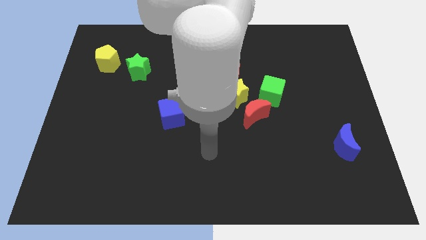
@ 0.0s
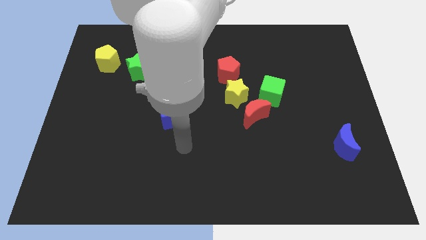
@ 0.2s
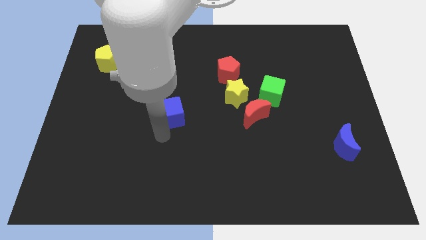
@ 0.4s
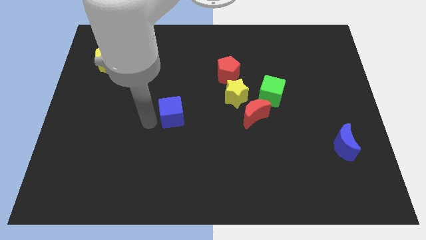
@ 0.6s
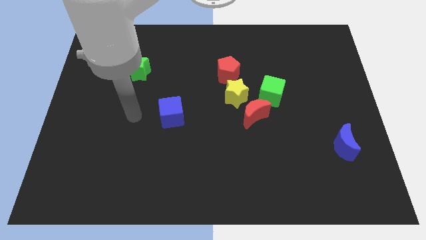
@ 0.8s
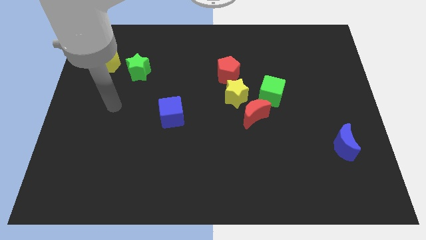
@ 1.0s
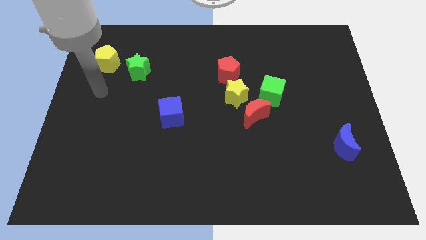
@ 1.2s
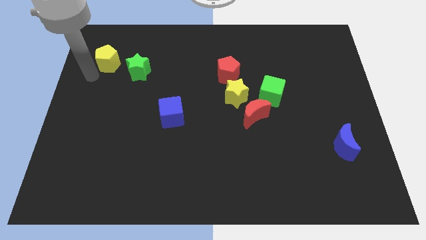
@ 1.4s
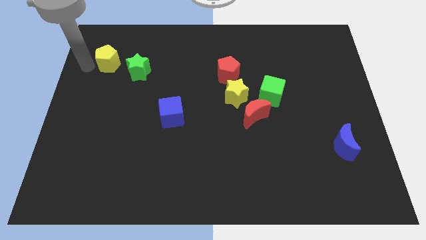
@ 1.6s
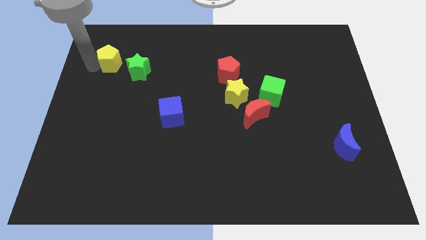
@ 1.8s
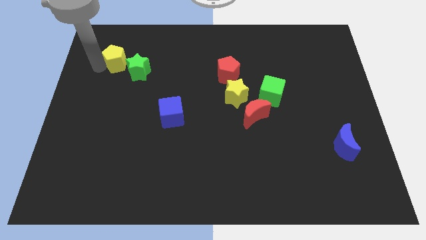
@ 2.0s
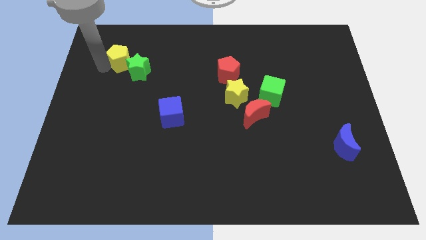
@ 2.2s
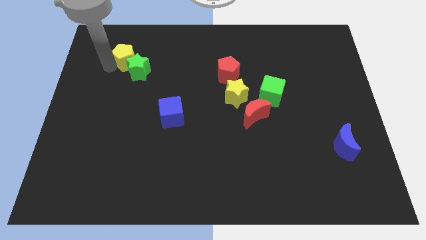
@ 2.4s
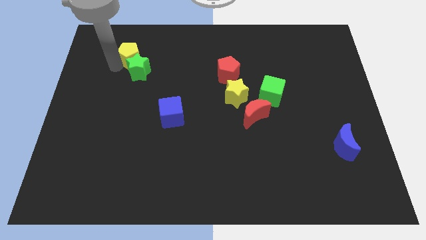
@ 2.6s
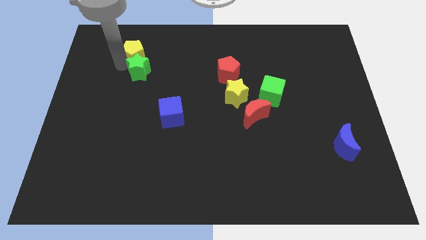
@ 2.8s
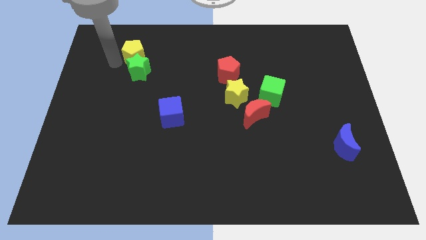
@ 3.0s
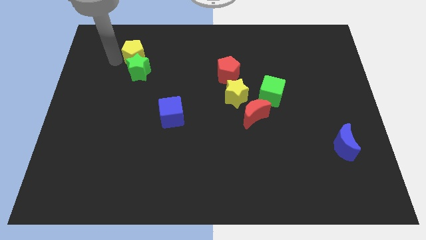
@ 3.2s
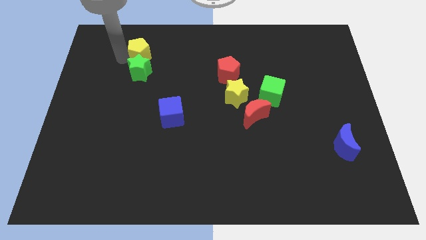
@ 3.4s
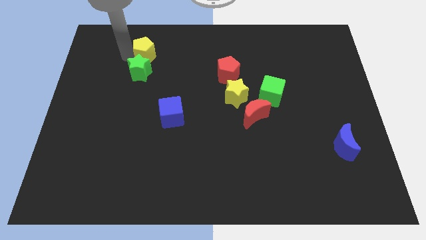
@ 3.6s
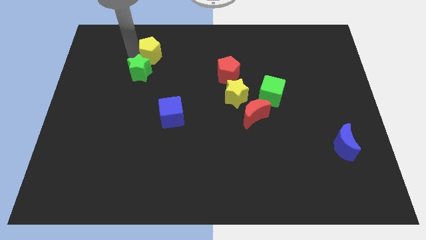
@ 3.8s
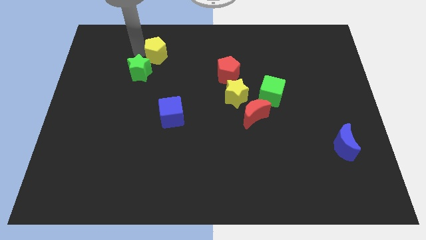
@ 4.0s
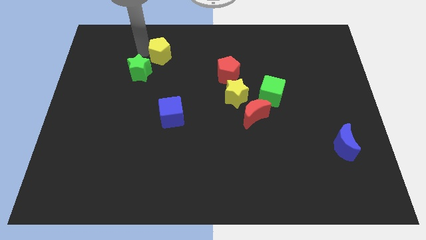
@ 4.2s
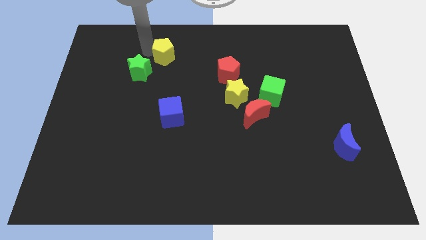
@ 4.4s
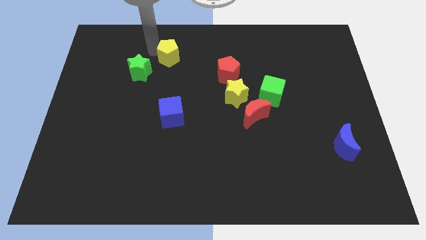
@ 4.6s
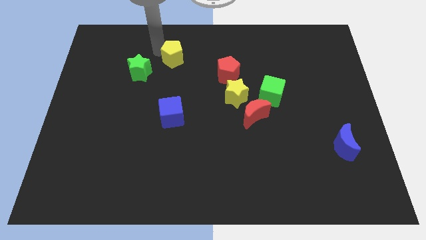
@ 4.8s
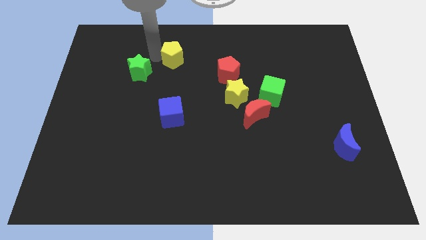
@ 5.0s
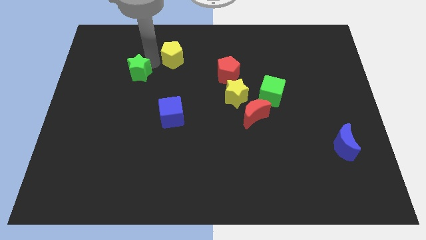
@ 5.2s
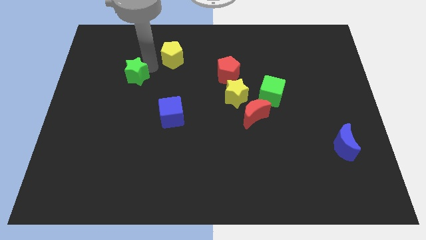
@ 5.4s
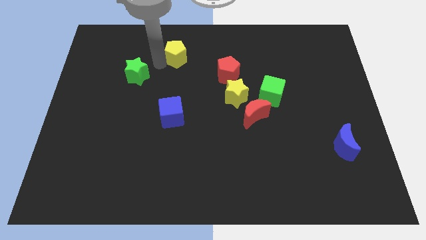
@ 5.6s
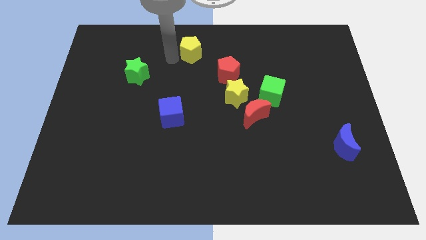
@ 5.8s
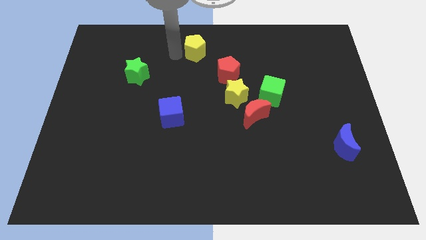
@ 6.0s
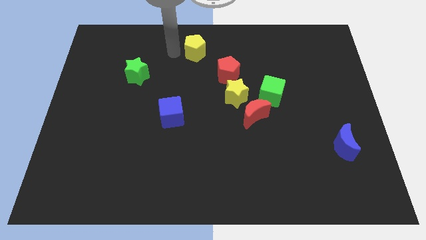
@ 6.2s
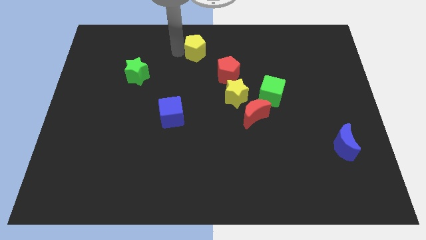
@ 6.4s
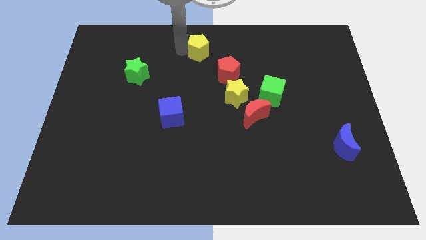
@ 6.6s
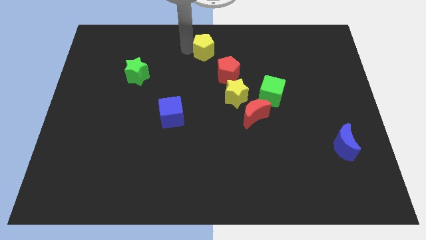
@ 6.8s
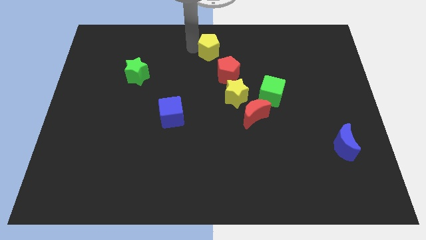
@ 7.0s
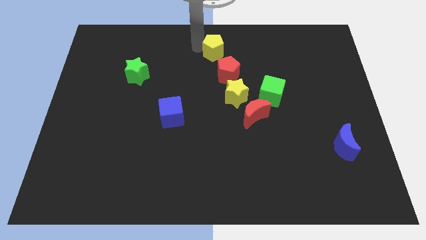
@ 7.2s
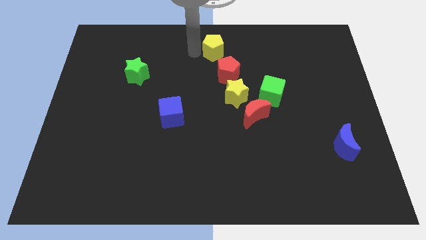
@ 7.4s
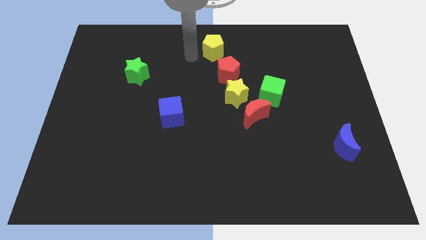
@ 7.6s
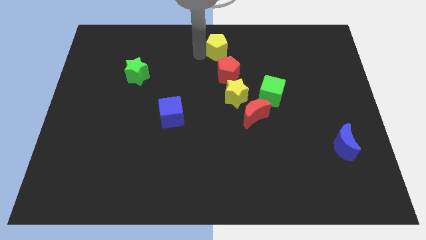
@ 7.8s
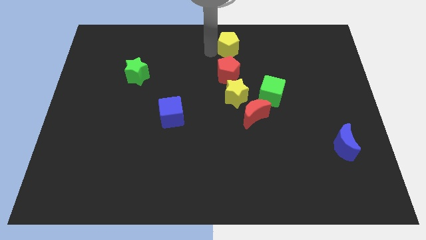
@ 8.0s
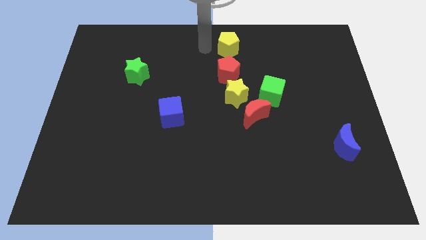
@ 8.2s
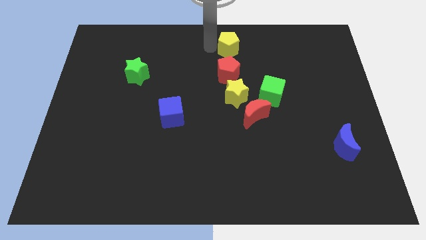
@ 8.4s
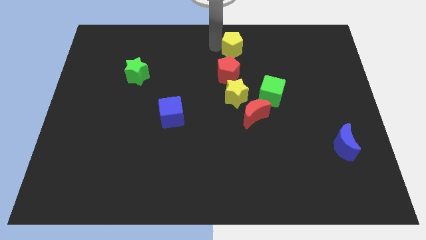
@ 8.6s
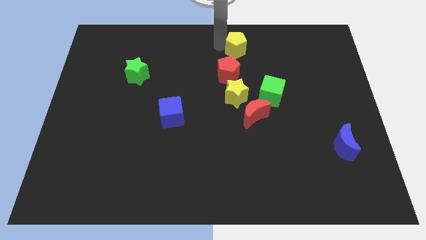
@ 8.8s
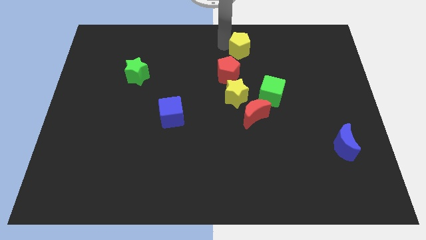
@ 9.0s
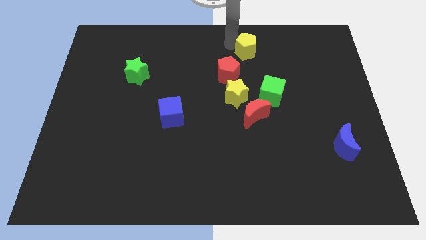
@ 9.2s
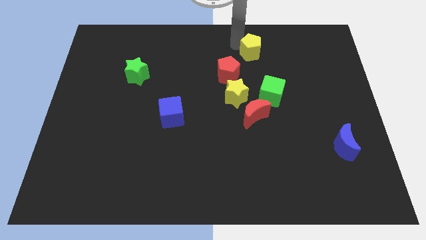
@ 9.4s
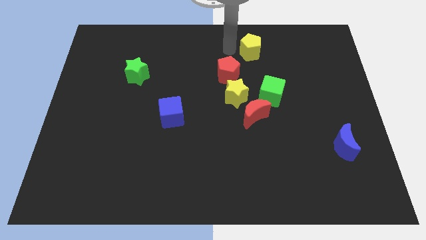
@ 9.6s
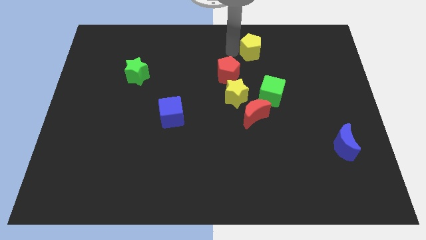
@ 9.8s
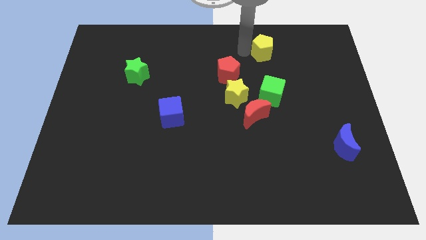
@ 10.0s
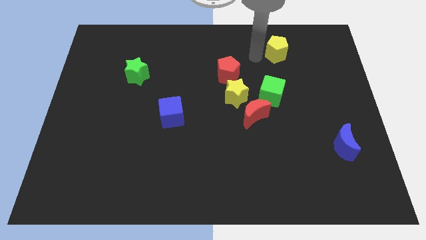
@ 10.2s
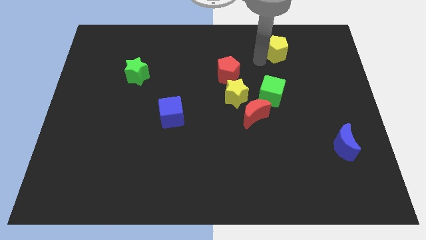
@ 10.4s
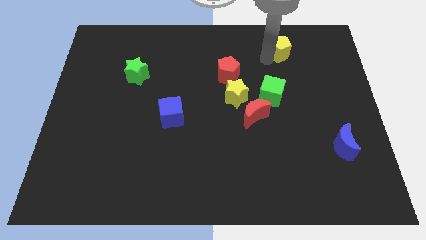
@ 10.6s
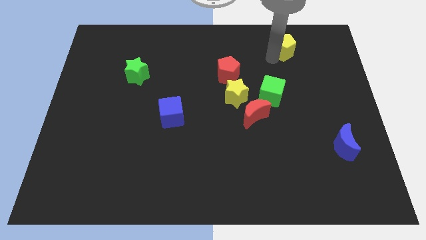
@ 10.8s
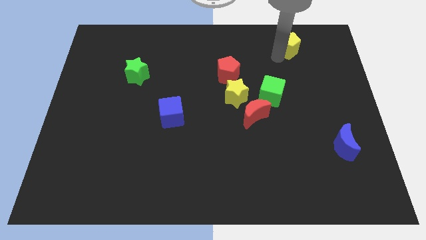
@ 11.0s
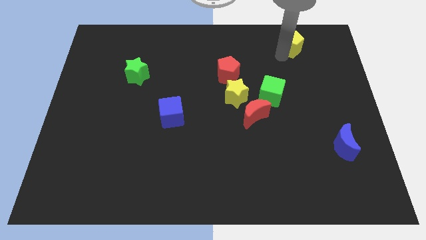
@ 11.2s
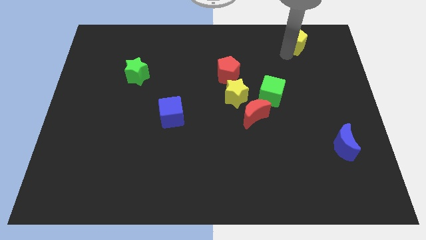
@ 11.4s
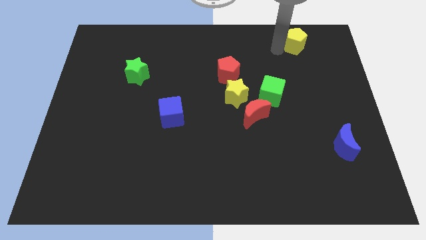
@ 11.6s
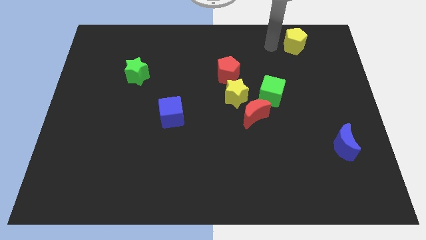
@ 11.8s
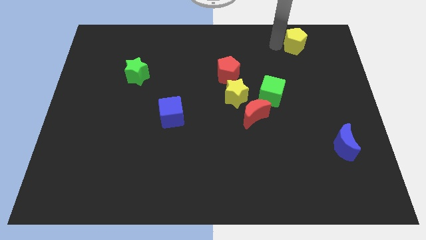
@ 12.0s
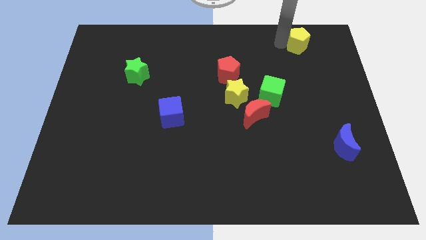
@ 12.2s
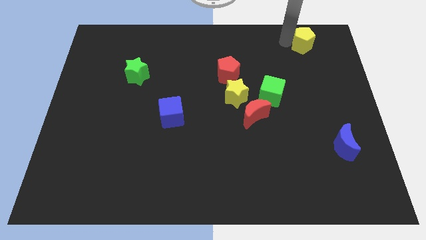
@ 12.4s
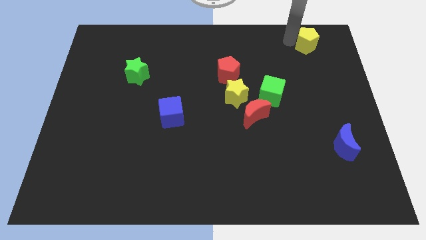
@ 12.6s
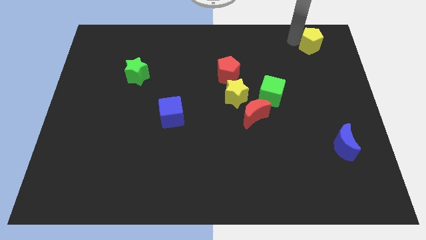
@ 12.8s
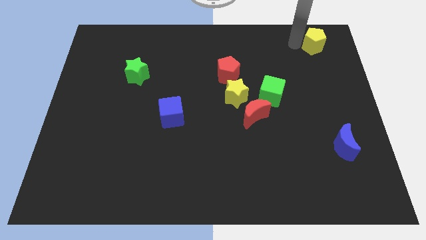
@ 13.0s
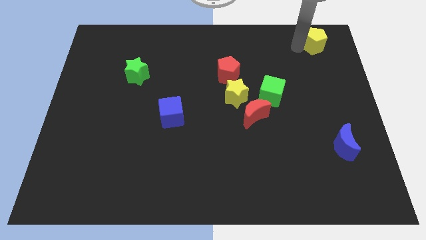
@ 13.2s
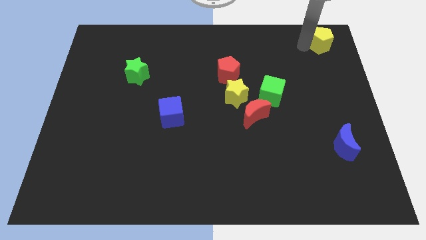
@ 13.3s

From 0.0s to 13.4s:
slide the yellow pentagon to the top right
